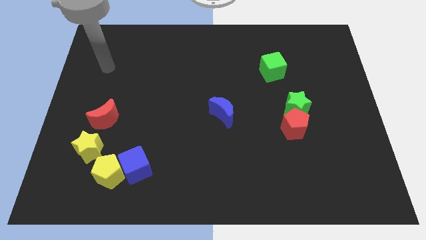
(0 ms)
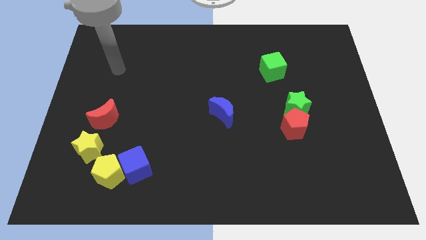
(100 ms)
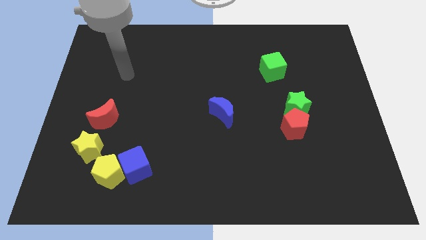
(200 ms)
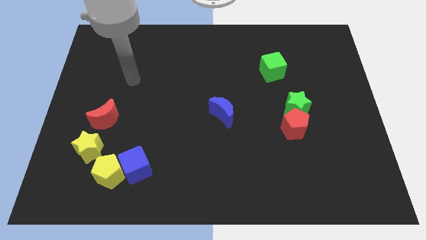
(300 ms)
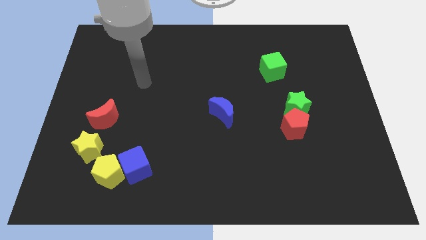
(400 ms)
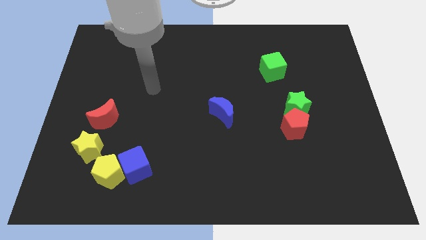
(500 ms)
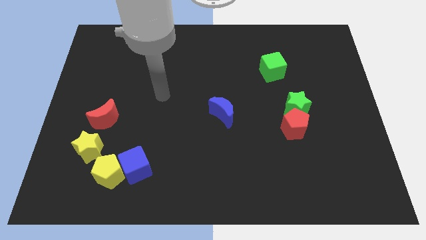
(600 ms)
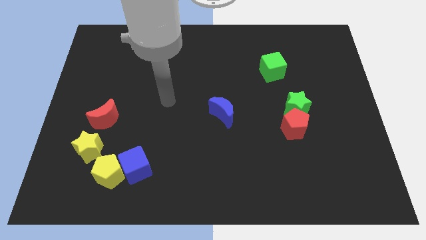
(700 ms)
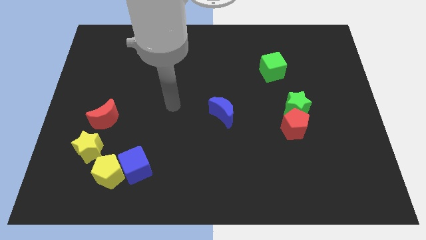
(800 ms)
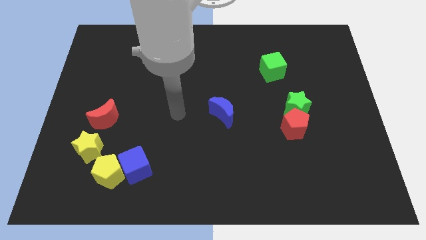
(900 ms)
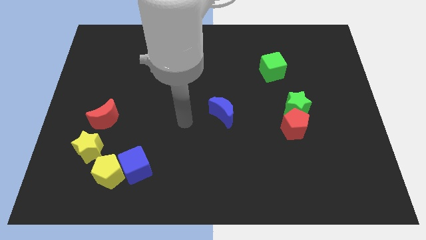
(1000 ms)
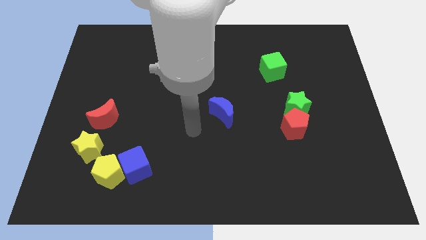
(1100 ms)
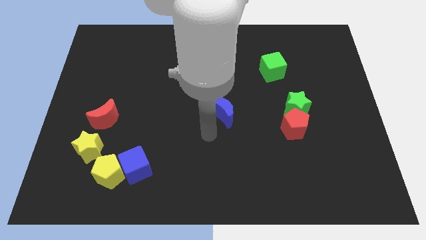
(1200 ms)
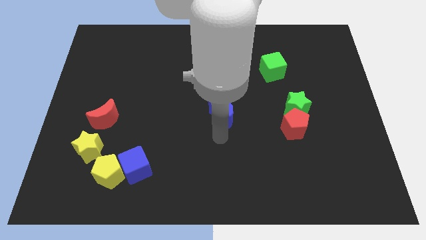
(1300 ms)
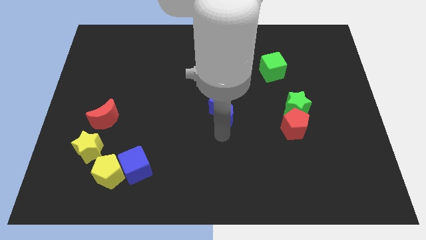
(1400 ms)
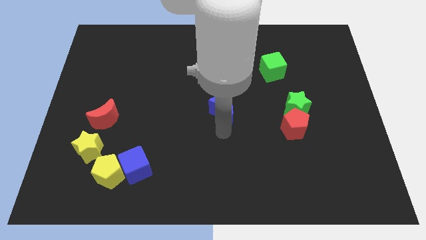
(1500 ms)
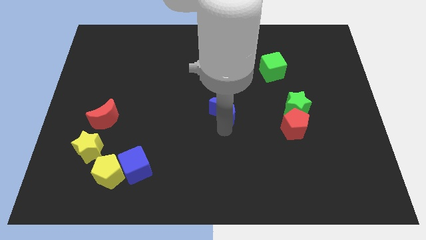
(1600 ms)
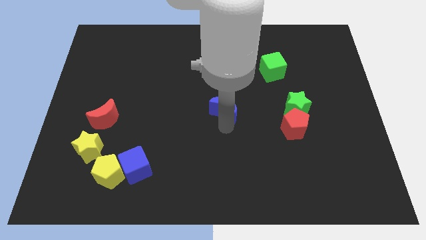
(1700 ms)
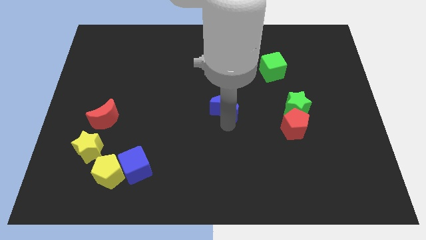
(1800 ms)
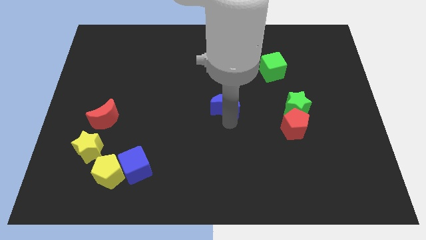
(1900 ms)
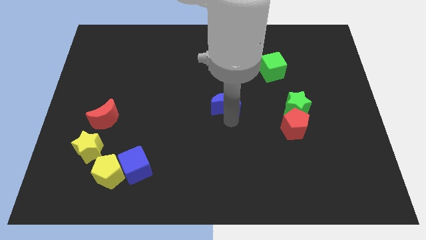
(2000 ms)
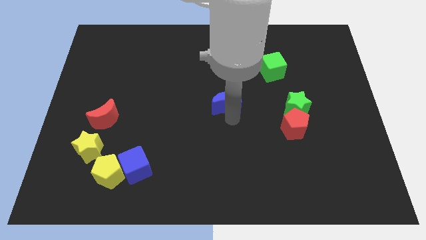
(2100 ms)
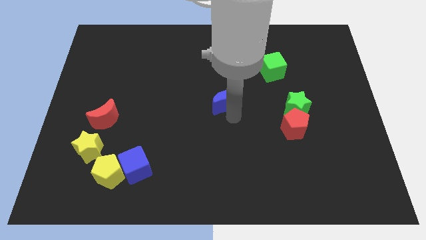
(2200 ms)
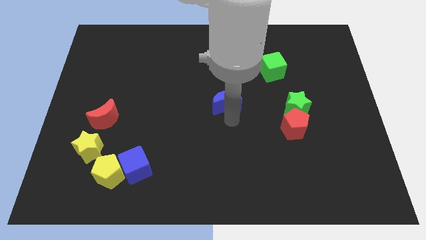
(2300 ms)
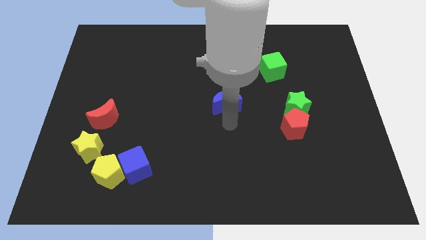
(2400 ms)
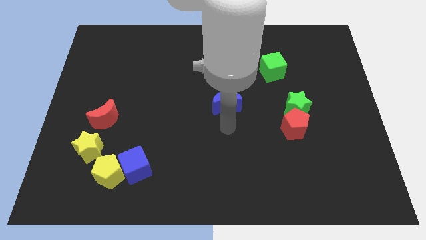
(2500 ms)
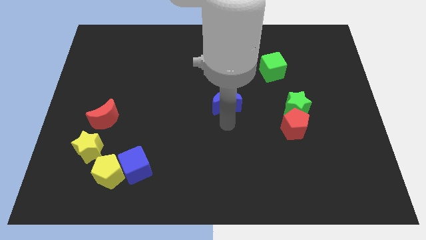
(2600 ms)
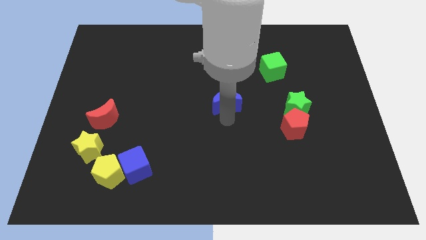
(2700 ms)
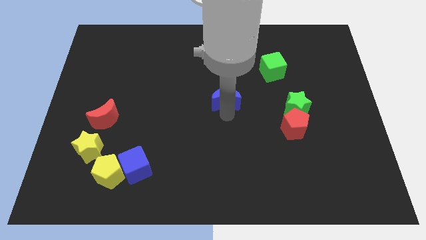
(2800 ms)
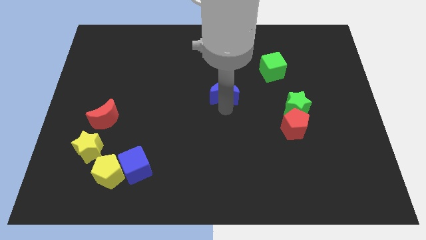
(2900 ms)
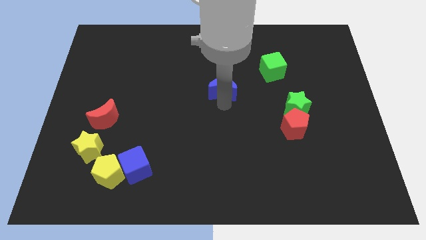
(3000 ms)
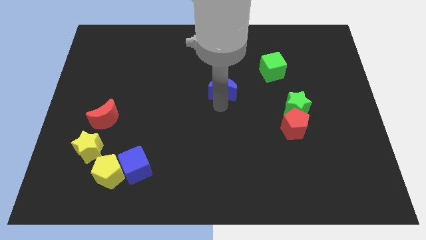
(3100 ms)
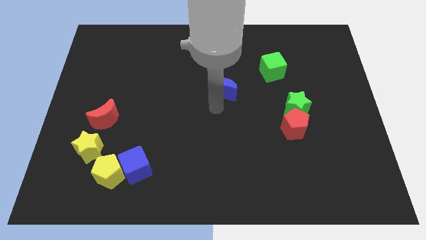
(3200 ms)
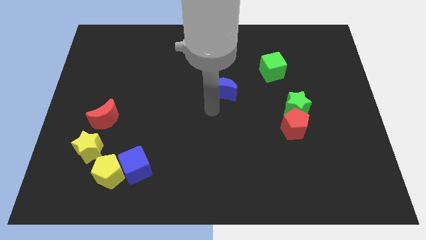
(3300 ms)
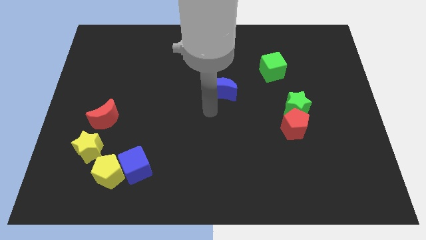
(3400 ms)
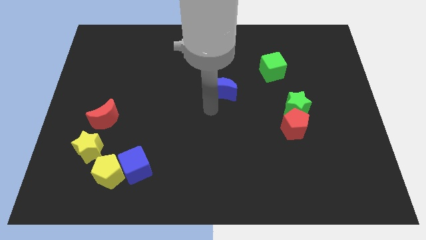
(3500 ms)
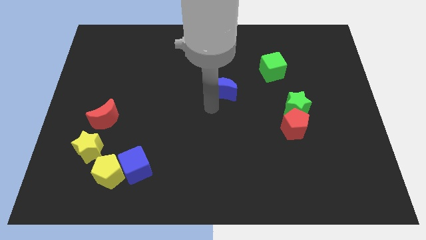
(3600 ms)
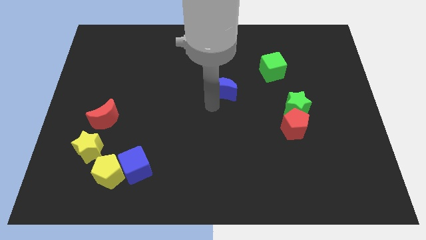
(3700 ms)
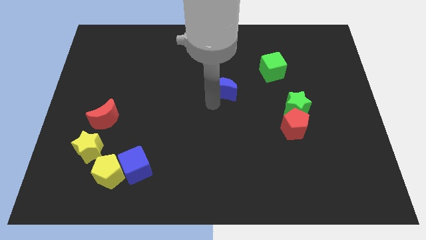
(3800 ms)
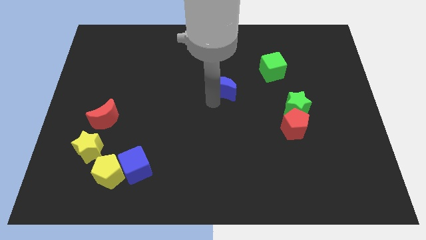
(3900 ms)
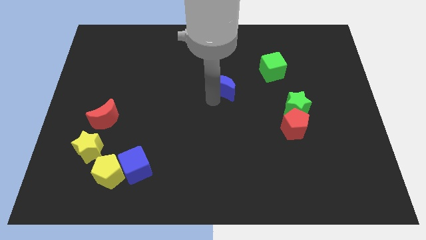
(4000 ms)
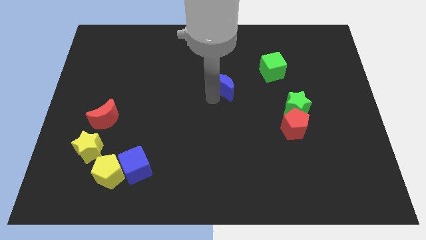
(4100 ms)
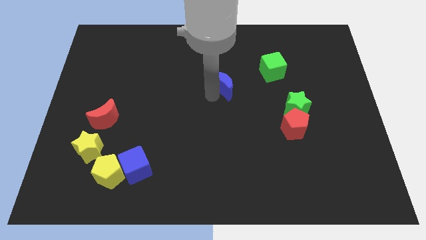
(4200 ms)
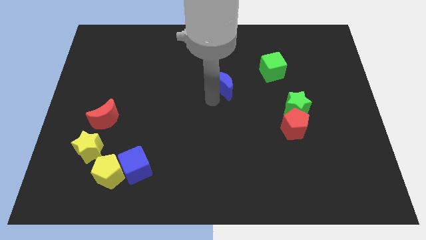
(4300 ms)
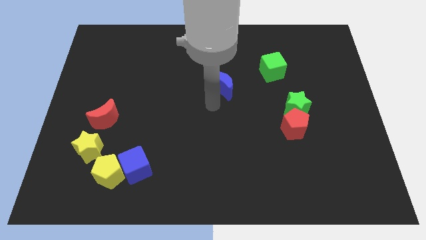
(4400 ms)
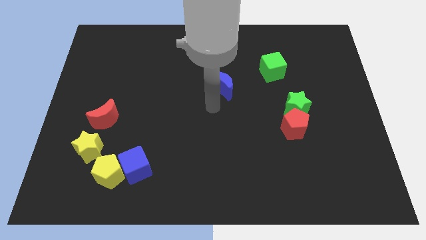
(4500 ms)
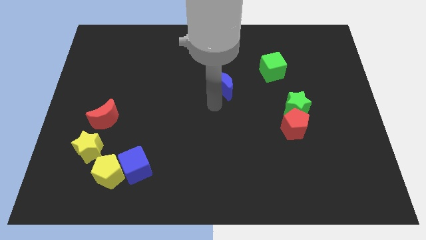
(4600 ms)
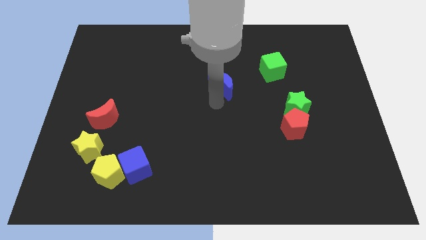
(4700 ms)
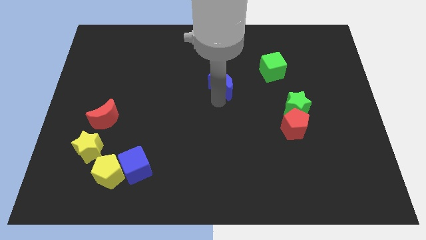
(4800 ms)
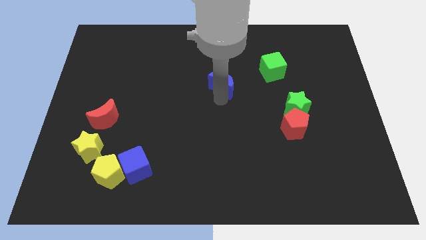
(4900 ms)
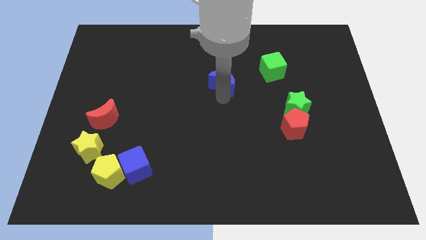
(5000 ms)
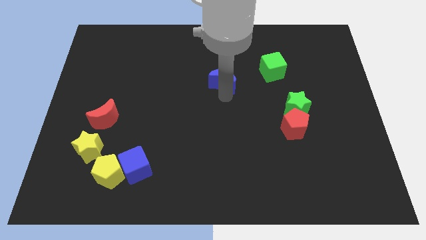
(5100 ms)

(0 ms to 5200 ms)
move the blue moon just left of the green cube

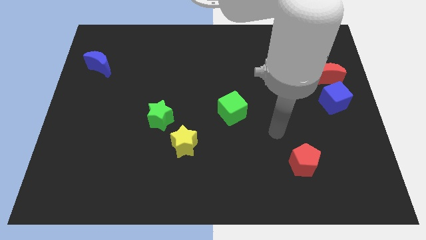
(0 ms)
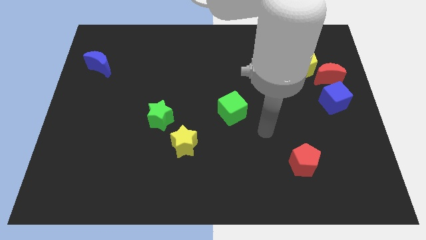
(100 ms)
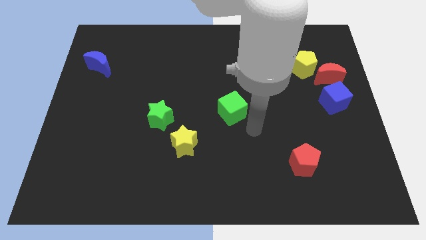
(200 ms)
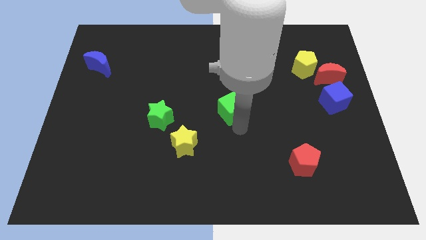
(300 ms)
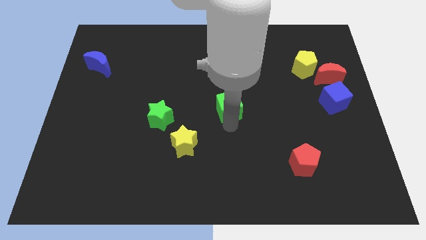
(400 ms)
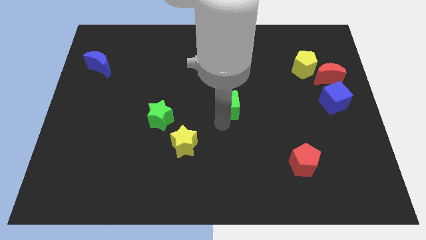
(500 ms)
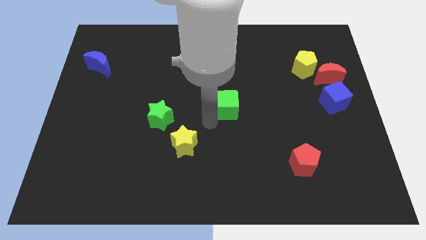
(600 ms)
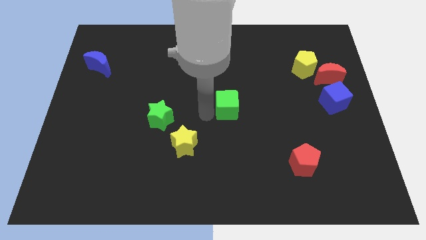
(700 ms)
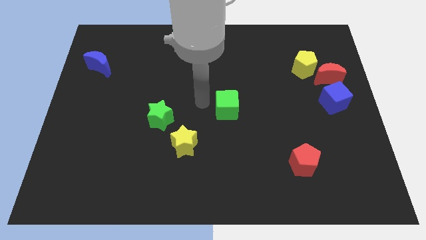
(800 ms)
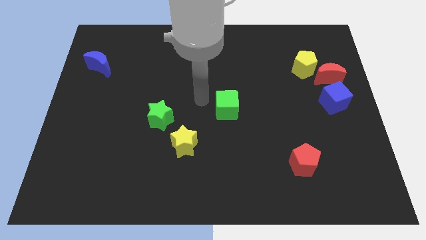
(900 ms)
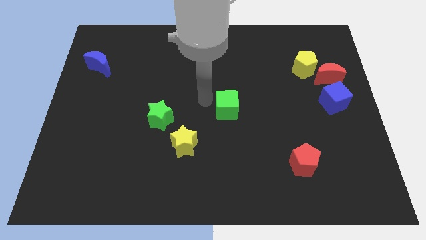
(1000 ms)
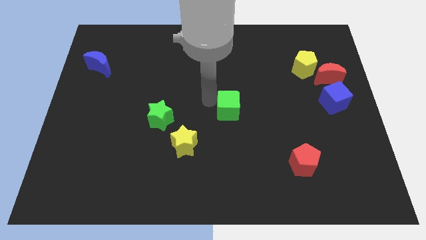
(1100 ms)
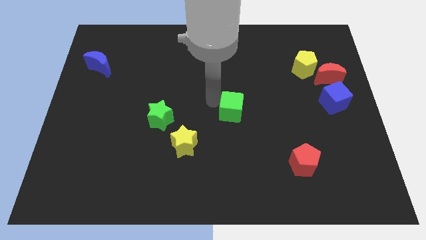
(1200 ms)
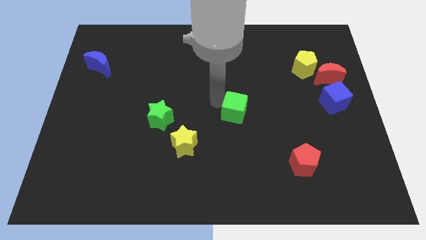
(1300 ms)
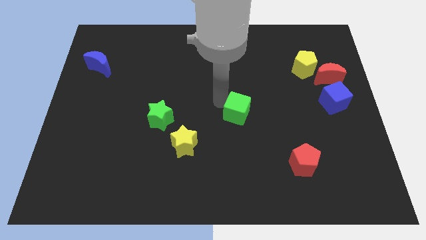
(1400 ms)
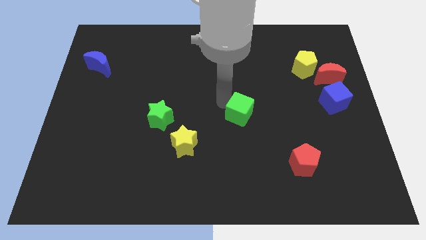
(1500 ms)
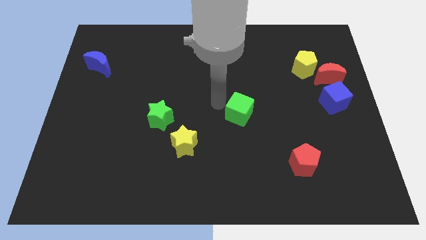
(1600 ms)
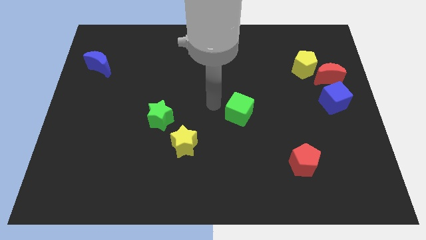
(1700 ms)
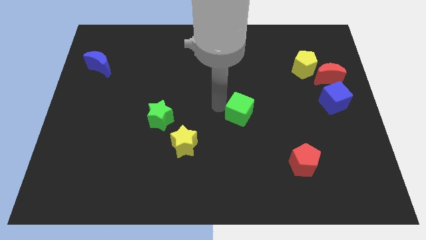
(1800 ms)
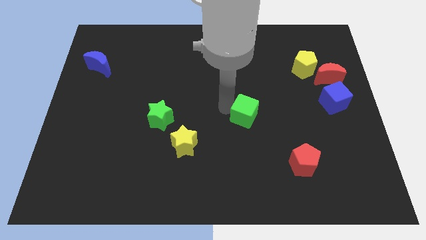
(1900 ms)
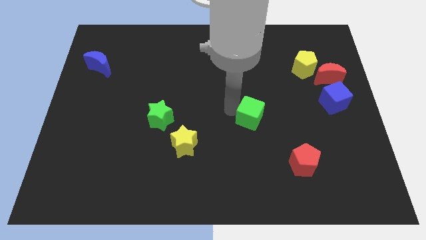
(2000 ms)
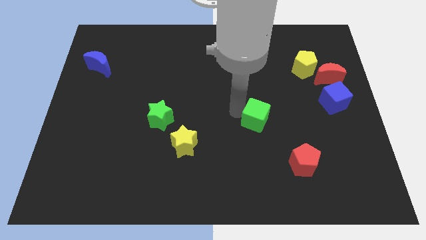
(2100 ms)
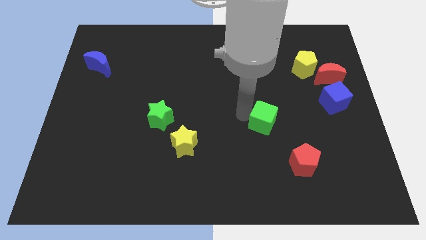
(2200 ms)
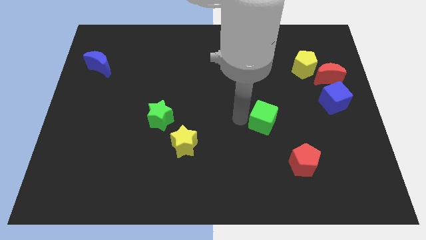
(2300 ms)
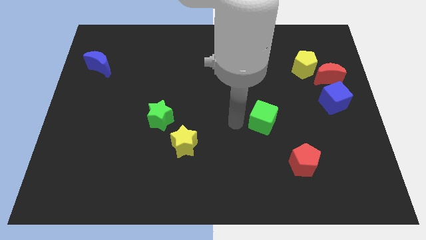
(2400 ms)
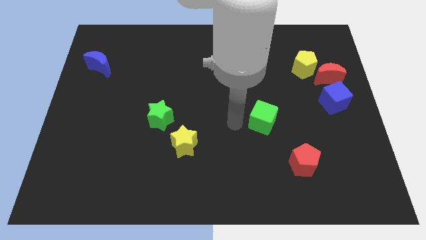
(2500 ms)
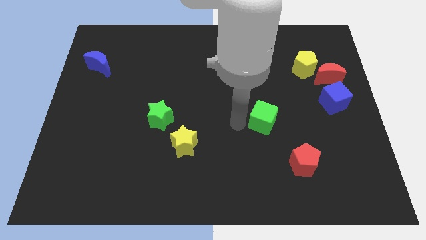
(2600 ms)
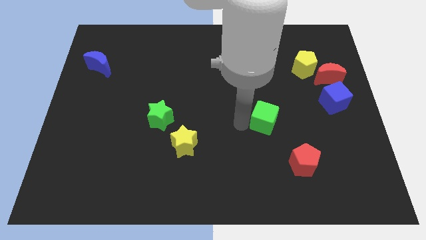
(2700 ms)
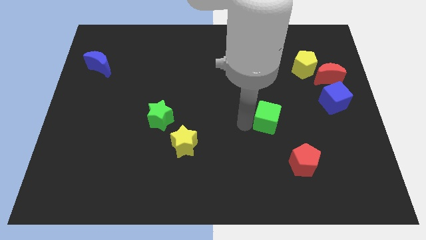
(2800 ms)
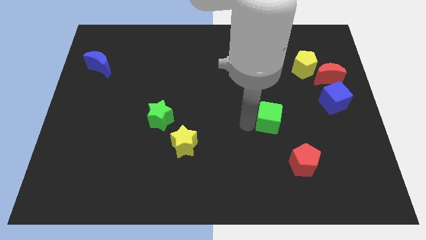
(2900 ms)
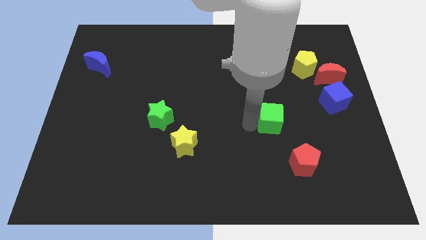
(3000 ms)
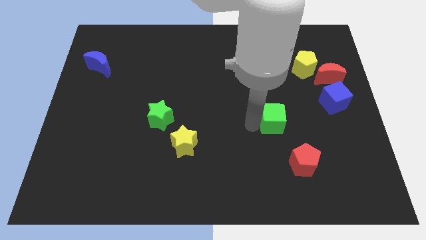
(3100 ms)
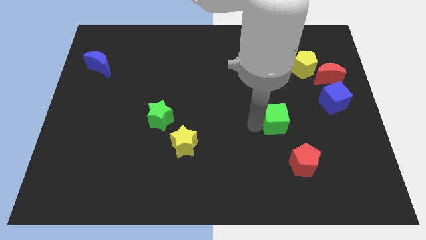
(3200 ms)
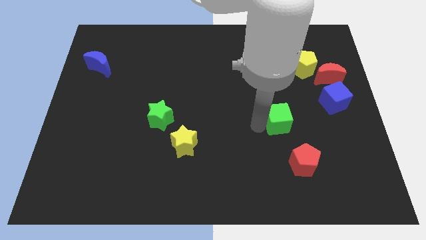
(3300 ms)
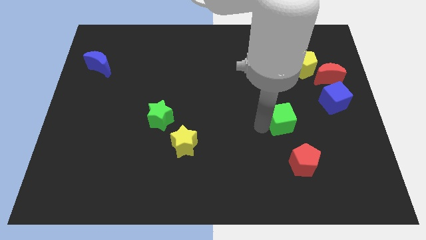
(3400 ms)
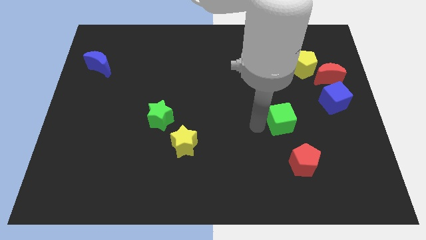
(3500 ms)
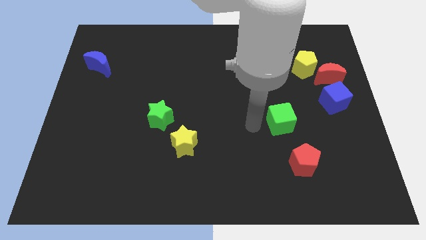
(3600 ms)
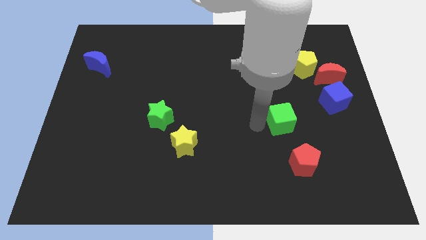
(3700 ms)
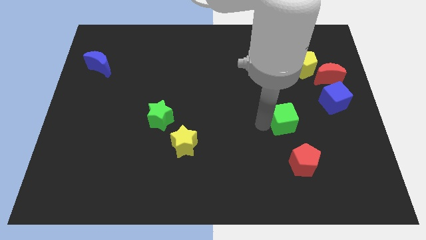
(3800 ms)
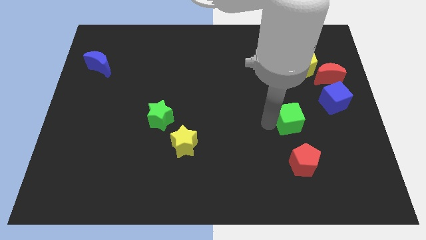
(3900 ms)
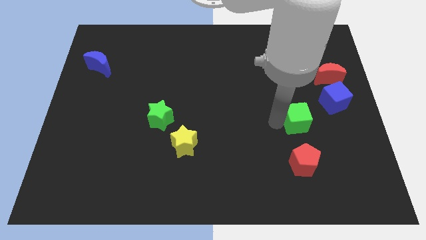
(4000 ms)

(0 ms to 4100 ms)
put the green cube diagonally down and to the left of the blue cube
